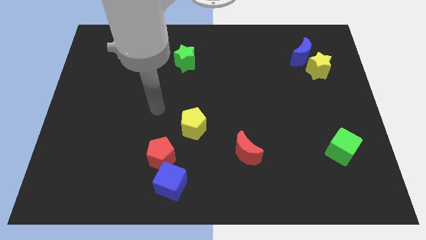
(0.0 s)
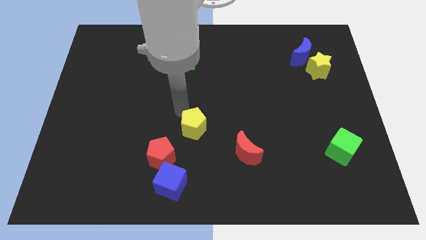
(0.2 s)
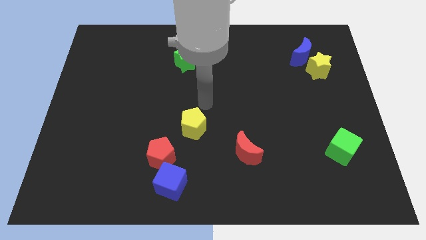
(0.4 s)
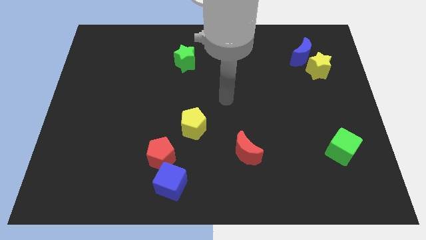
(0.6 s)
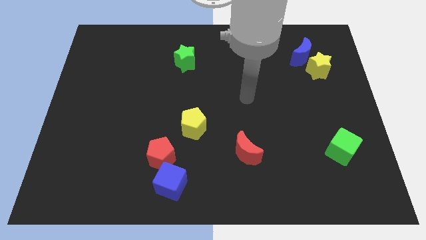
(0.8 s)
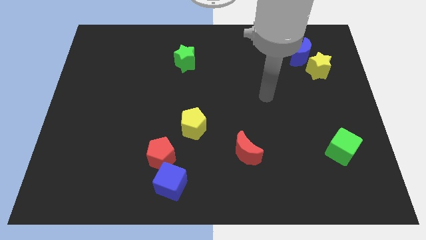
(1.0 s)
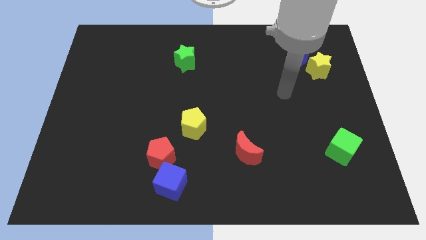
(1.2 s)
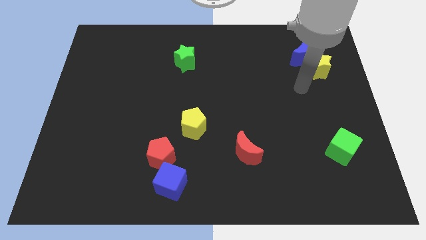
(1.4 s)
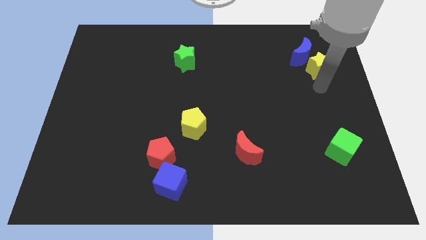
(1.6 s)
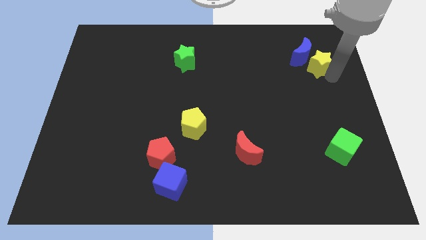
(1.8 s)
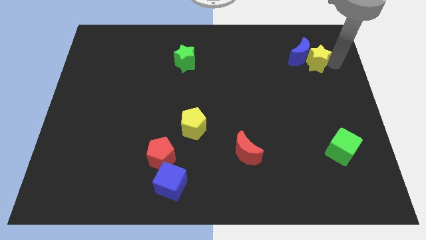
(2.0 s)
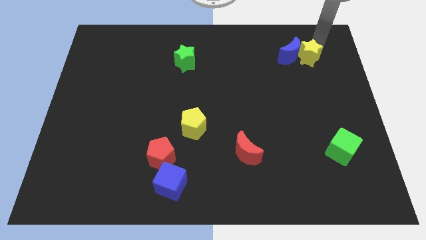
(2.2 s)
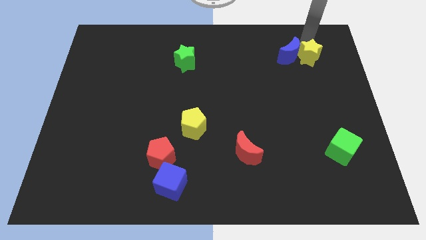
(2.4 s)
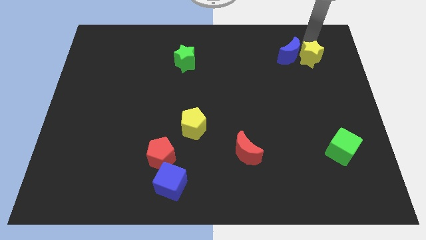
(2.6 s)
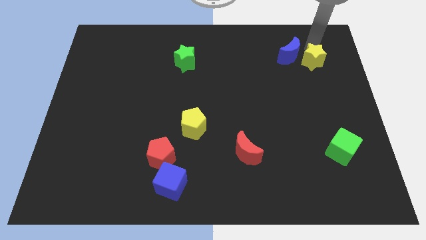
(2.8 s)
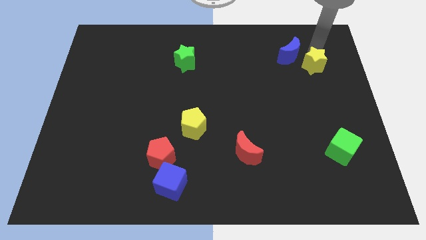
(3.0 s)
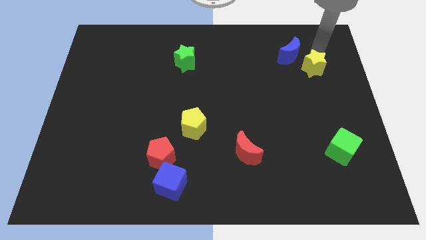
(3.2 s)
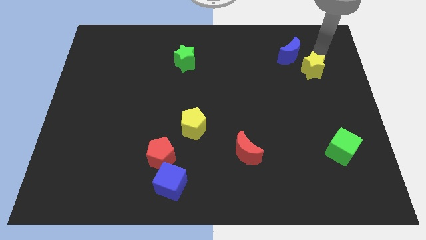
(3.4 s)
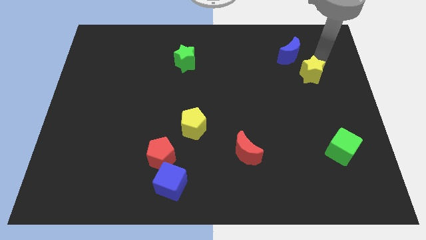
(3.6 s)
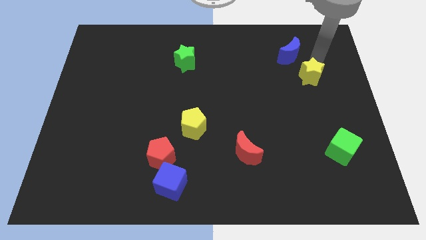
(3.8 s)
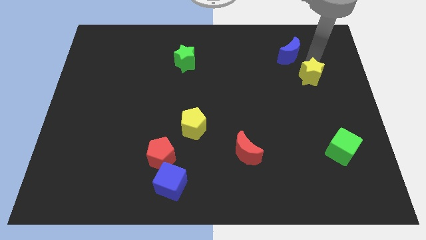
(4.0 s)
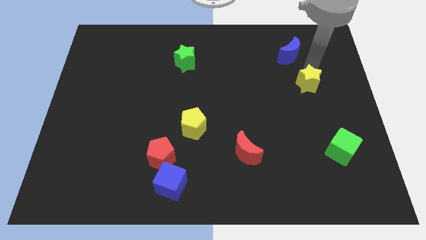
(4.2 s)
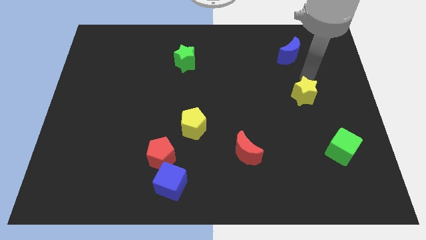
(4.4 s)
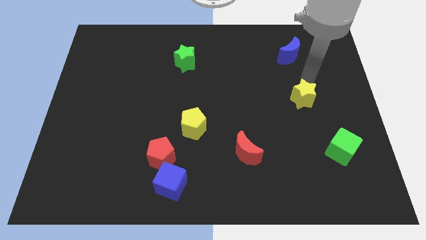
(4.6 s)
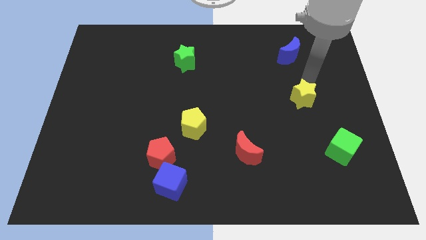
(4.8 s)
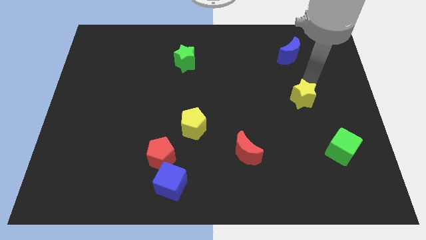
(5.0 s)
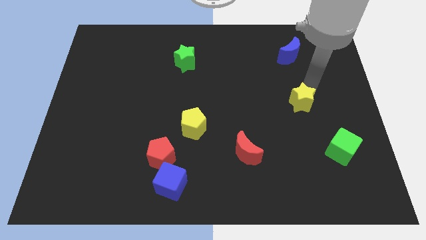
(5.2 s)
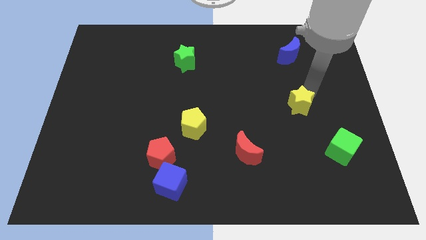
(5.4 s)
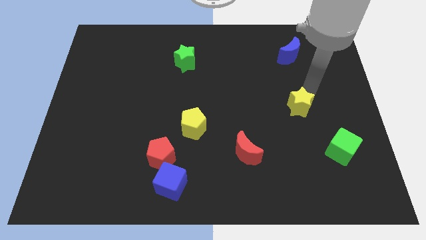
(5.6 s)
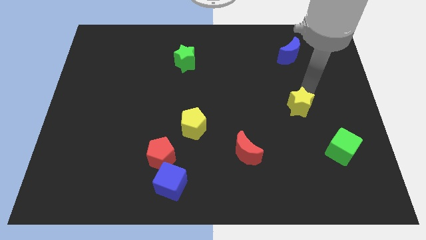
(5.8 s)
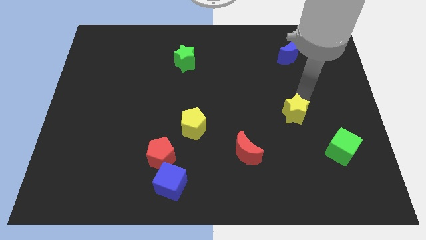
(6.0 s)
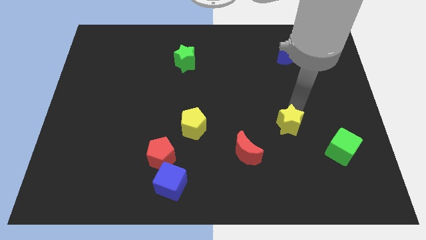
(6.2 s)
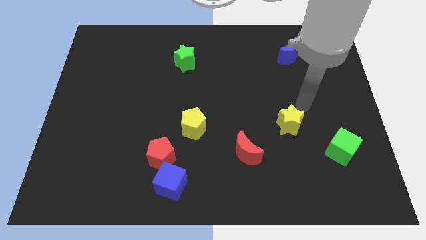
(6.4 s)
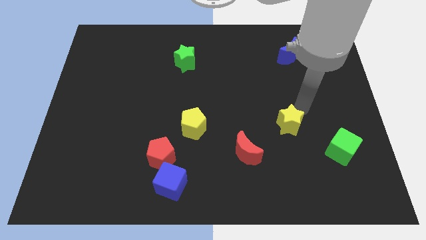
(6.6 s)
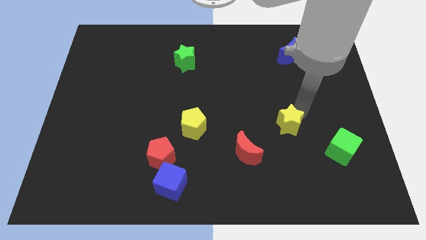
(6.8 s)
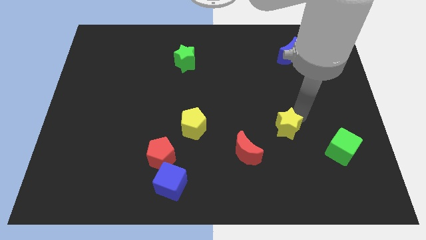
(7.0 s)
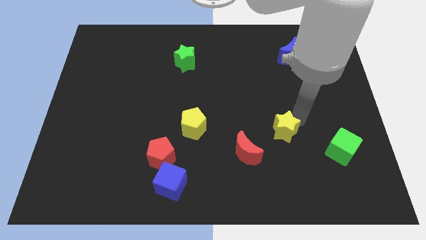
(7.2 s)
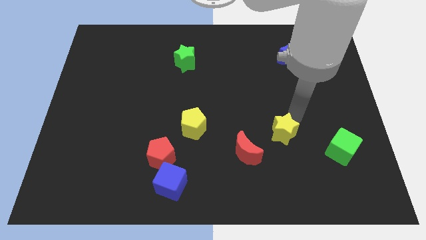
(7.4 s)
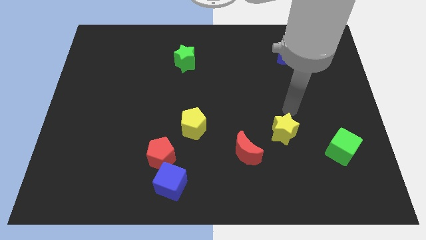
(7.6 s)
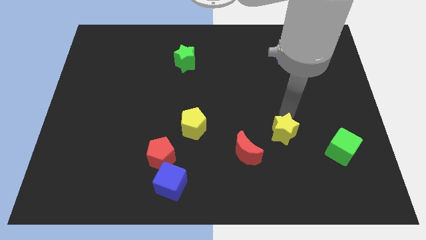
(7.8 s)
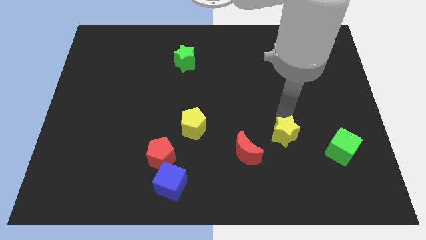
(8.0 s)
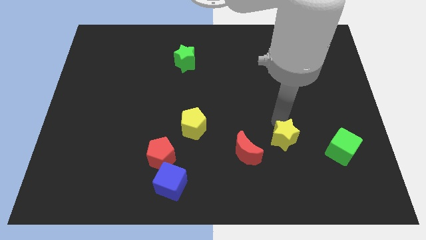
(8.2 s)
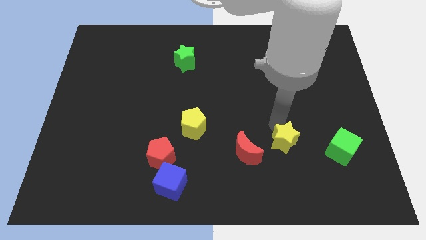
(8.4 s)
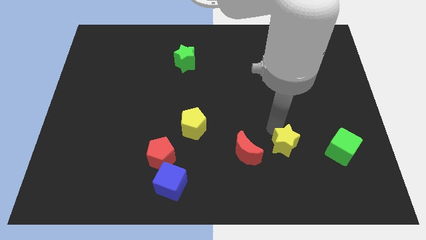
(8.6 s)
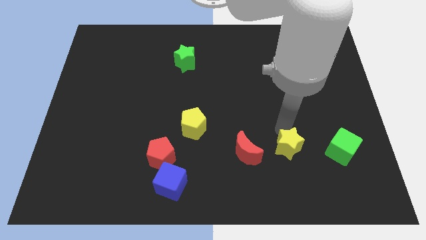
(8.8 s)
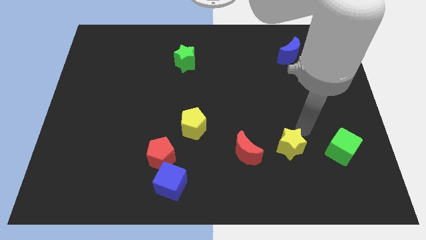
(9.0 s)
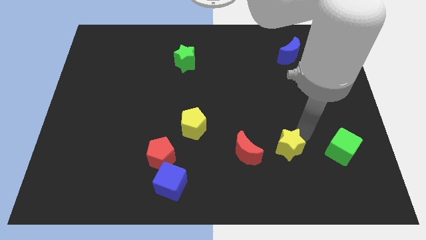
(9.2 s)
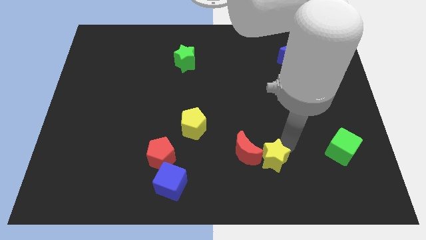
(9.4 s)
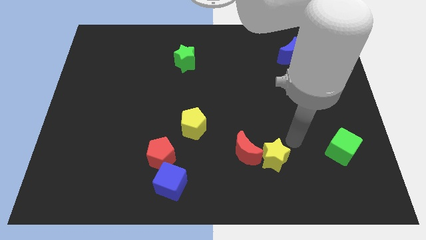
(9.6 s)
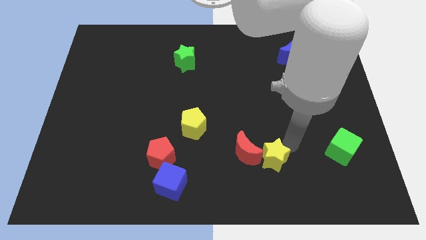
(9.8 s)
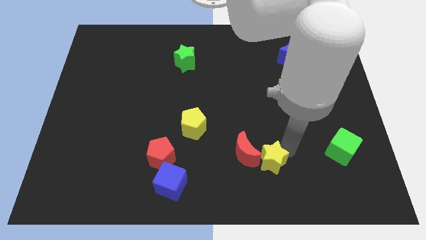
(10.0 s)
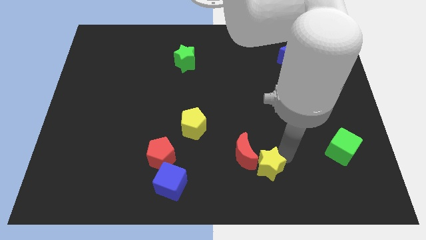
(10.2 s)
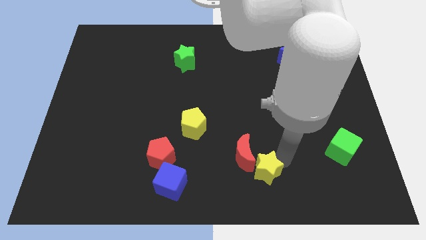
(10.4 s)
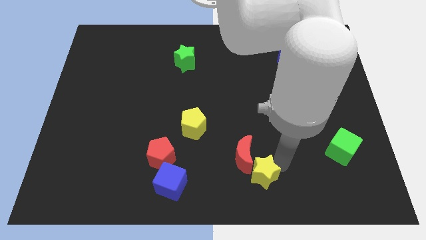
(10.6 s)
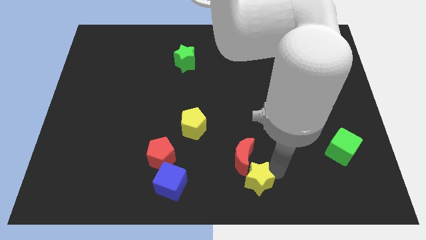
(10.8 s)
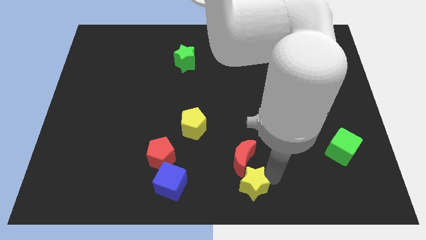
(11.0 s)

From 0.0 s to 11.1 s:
slide the yellow star to the right of the blue cube

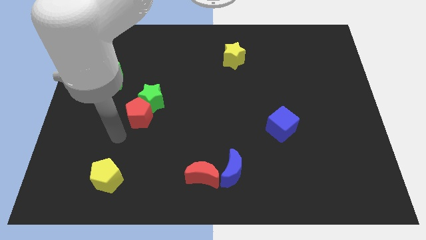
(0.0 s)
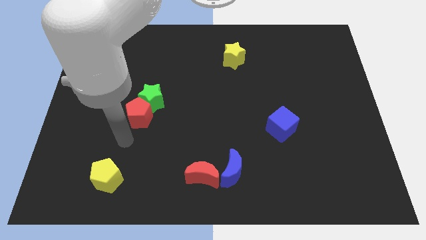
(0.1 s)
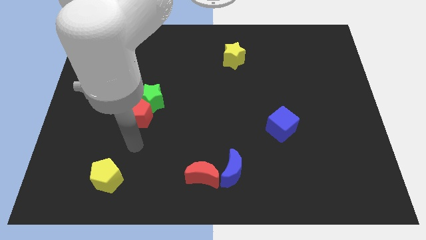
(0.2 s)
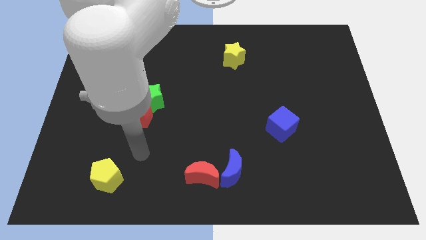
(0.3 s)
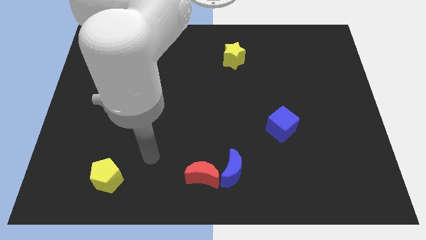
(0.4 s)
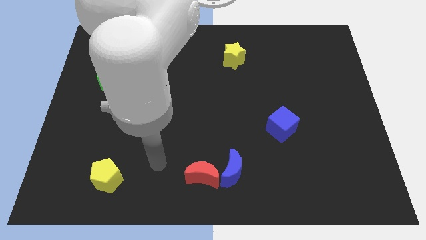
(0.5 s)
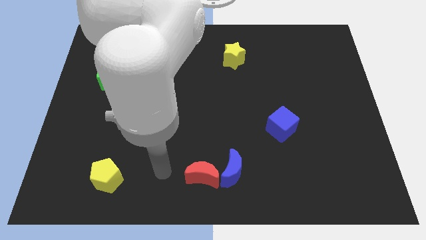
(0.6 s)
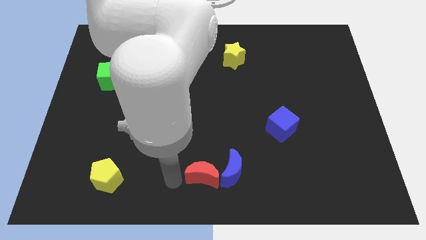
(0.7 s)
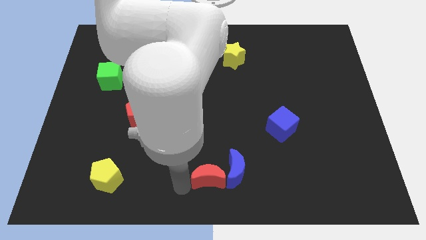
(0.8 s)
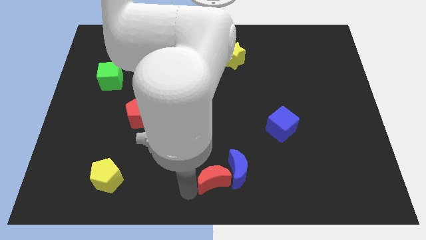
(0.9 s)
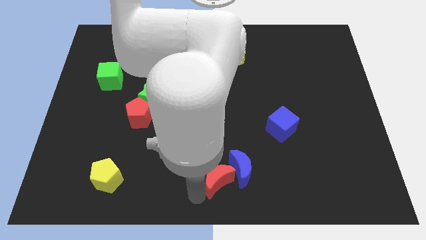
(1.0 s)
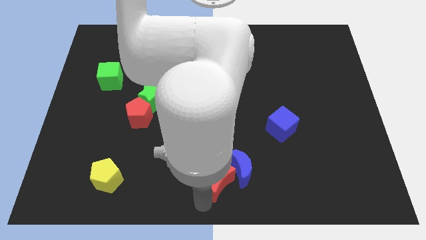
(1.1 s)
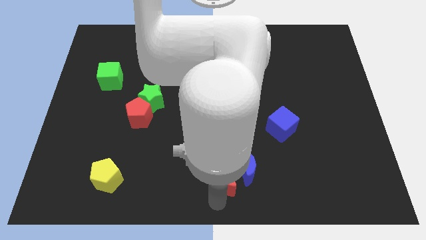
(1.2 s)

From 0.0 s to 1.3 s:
slide the blue moon to the top of the red moon

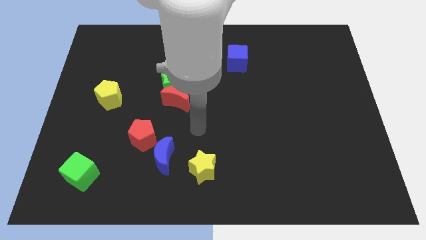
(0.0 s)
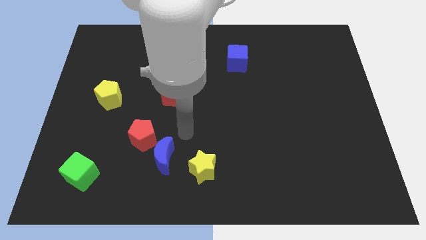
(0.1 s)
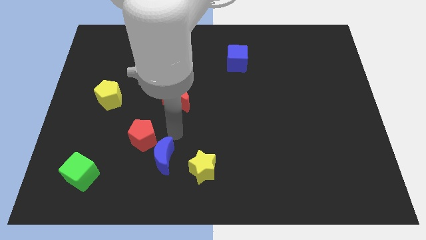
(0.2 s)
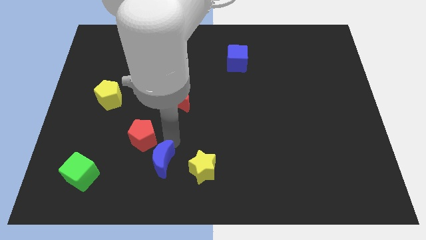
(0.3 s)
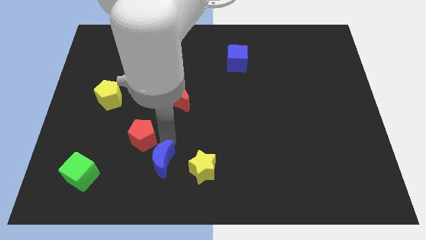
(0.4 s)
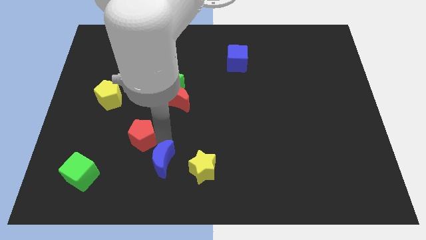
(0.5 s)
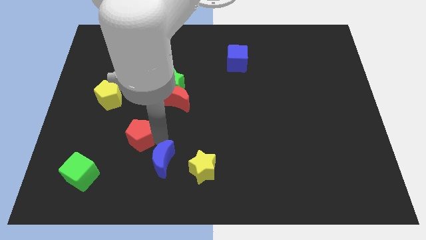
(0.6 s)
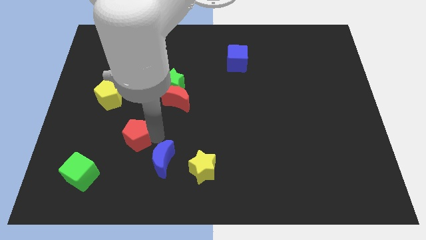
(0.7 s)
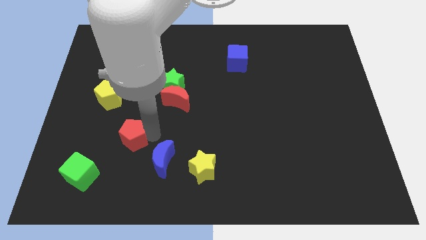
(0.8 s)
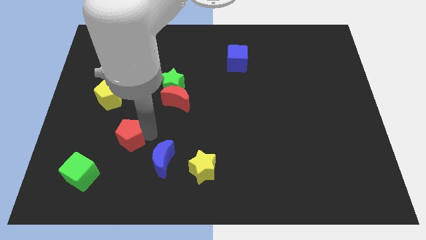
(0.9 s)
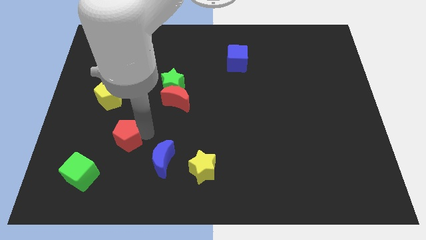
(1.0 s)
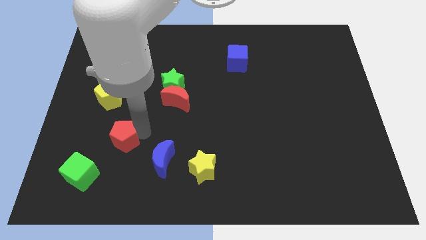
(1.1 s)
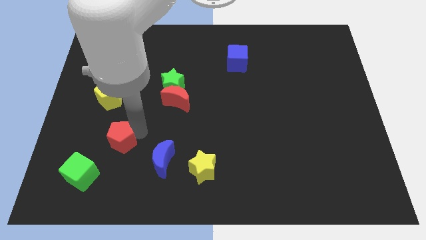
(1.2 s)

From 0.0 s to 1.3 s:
slide the red pentagon to the bottom of the yellow pentagon
